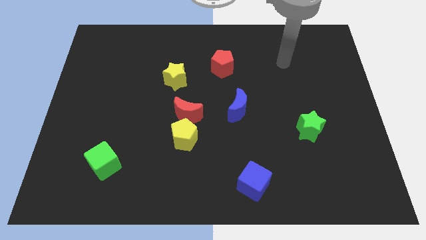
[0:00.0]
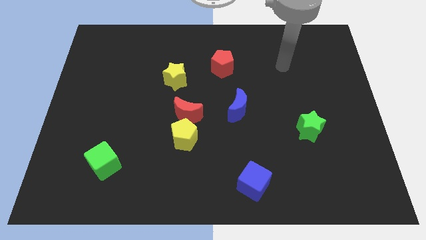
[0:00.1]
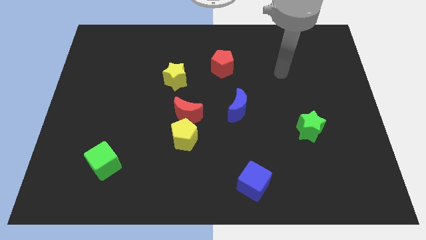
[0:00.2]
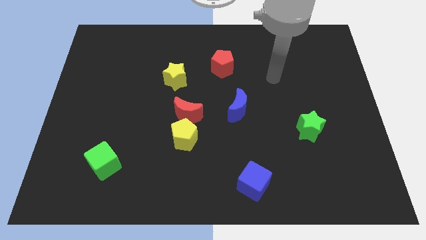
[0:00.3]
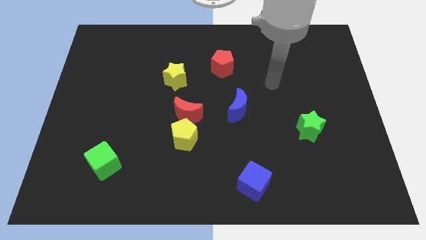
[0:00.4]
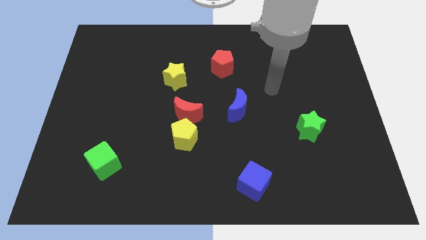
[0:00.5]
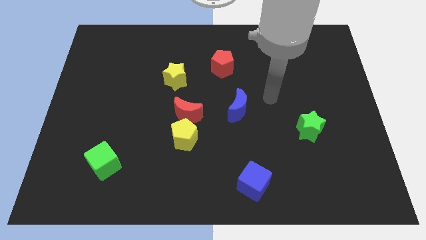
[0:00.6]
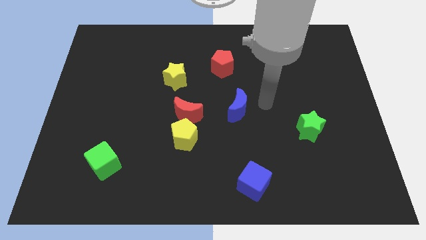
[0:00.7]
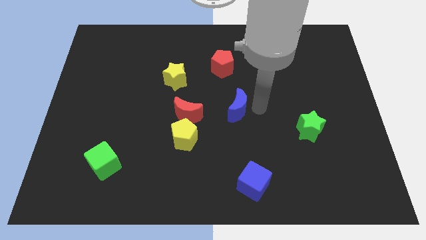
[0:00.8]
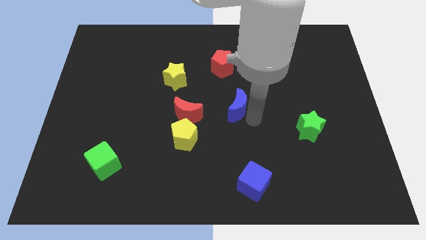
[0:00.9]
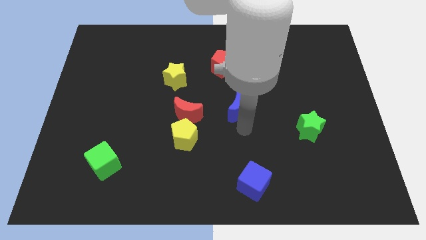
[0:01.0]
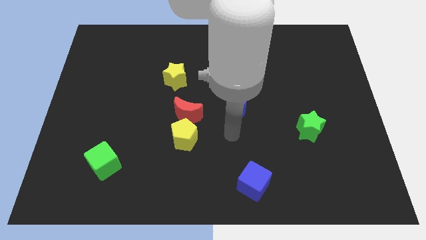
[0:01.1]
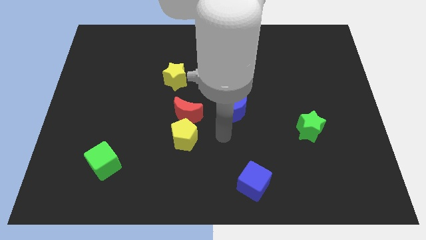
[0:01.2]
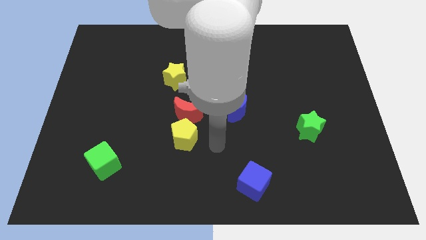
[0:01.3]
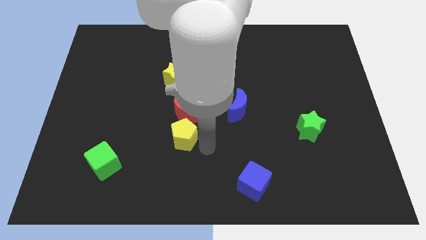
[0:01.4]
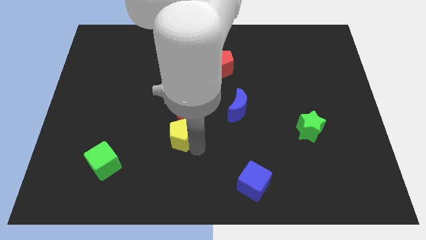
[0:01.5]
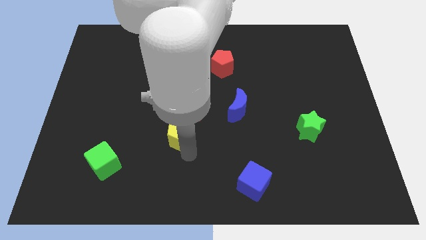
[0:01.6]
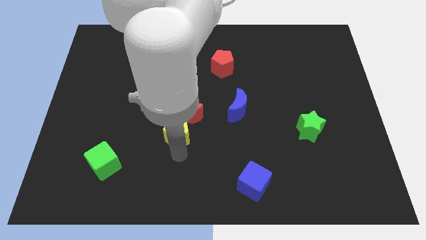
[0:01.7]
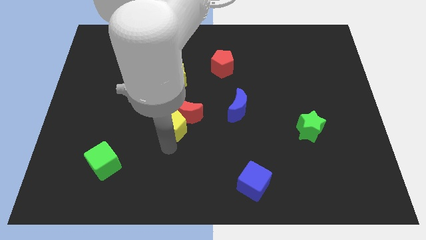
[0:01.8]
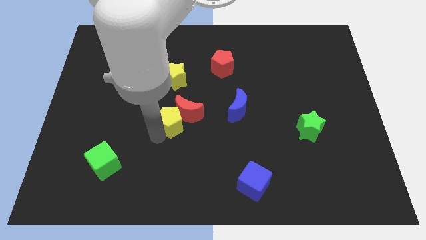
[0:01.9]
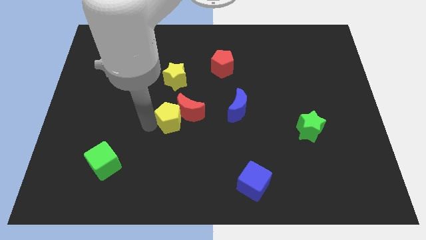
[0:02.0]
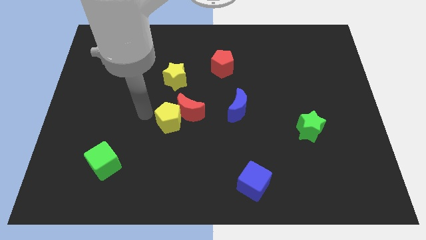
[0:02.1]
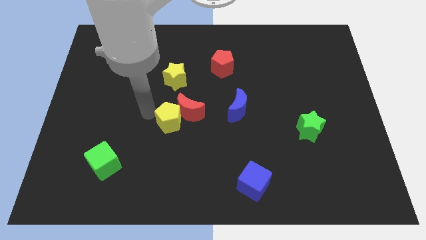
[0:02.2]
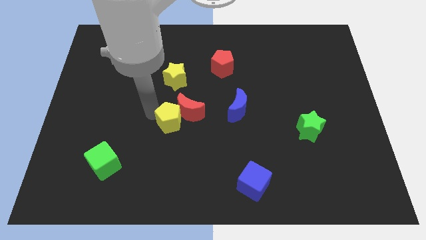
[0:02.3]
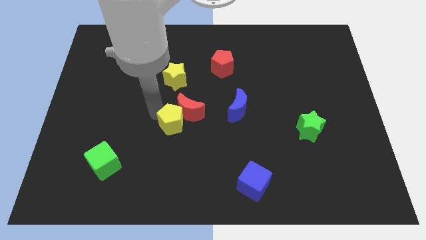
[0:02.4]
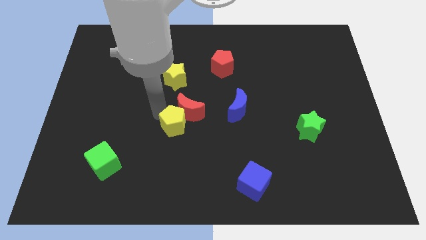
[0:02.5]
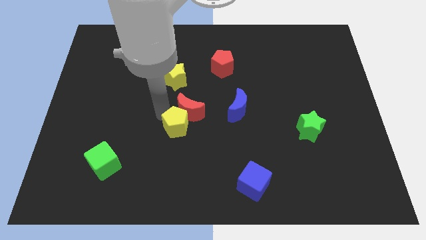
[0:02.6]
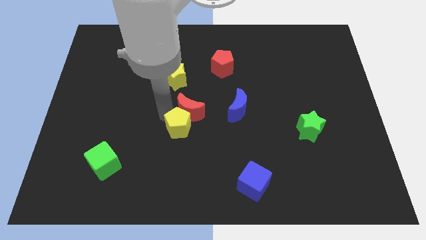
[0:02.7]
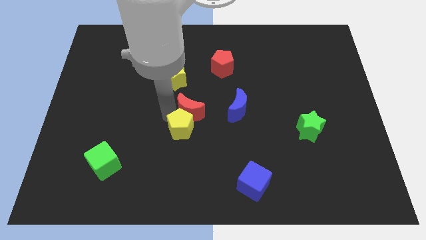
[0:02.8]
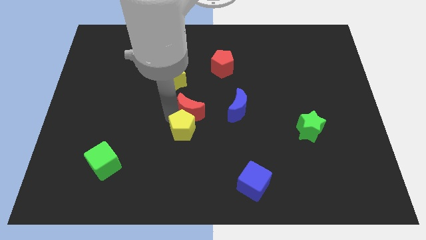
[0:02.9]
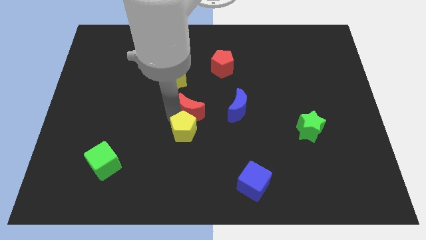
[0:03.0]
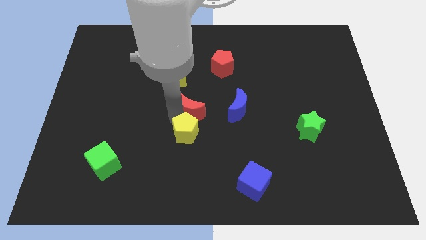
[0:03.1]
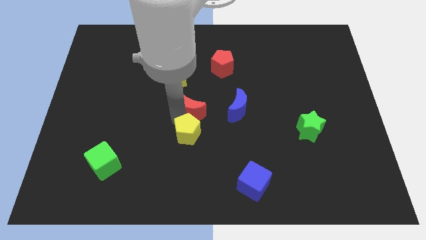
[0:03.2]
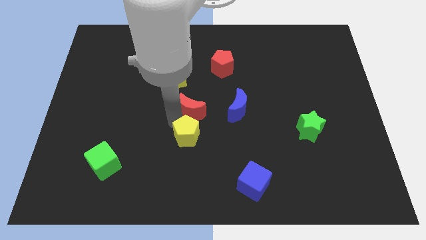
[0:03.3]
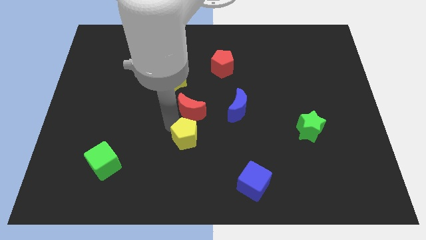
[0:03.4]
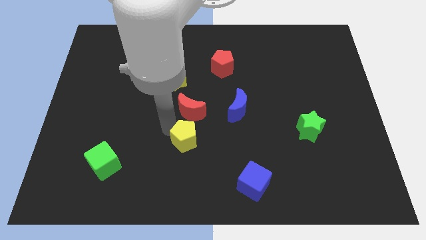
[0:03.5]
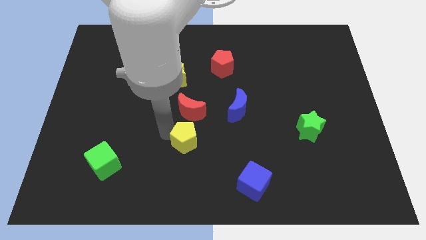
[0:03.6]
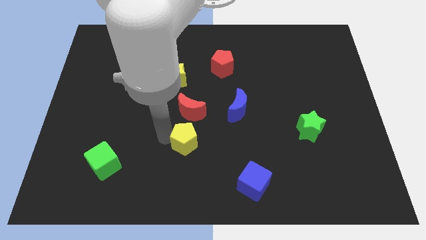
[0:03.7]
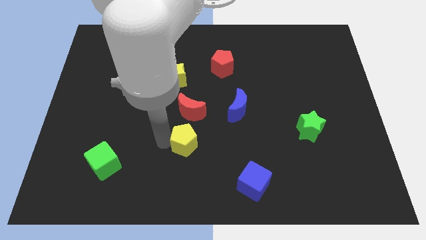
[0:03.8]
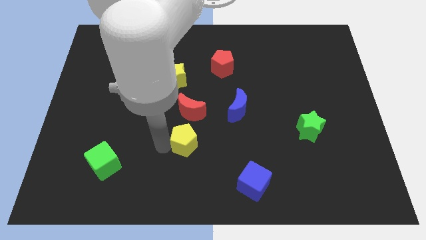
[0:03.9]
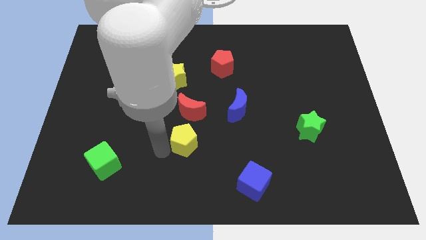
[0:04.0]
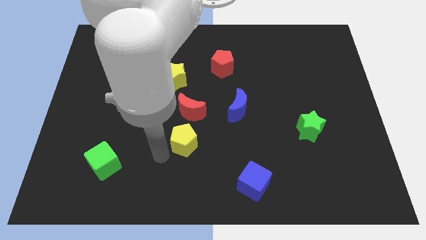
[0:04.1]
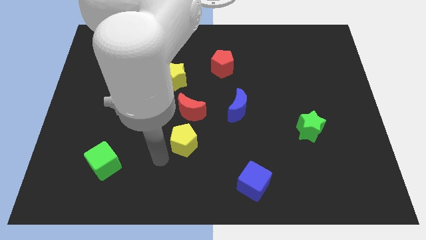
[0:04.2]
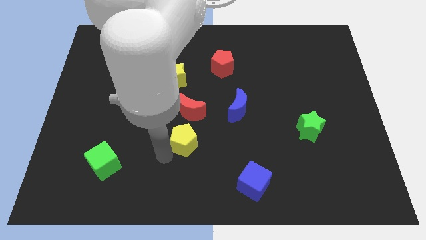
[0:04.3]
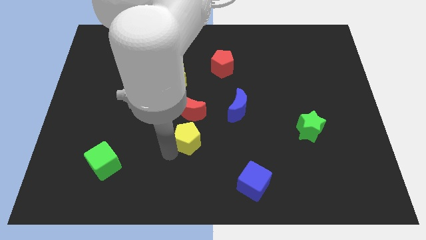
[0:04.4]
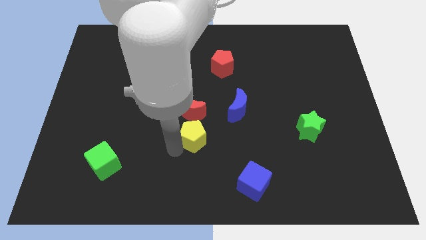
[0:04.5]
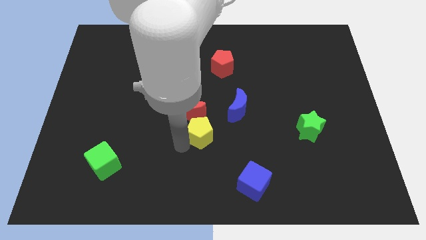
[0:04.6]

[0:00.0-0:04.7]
put the yellow pentagon to the bottom left of the blue moon

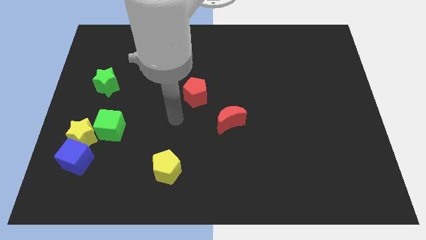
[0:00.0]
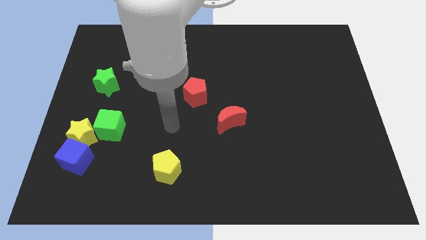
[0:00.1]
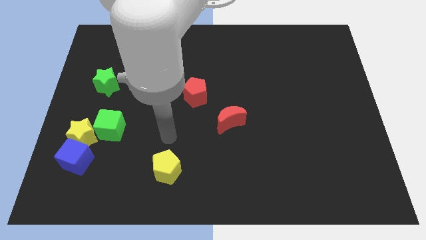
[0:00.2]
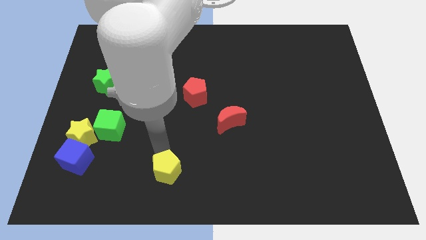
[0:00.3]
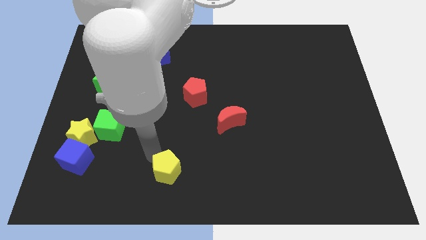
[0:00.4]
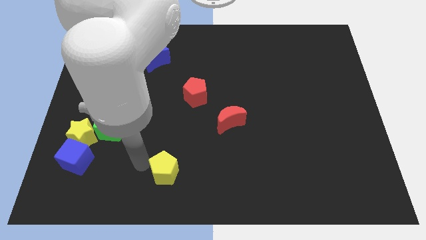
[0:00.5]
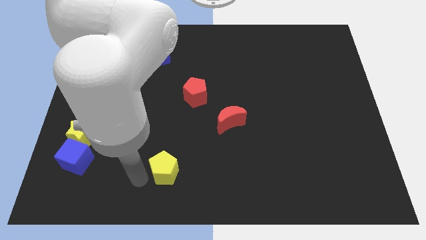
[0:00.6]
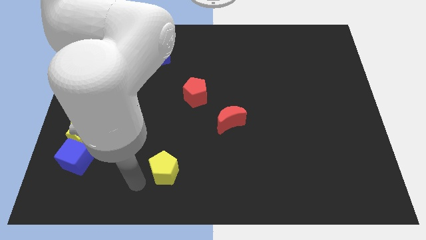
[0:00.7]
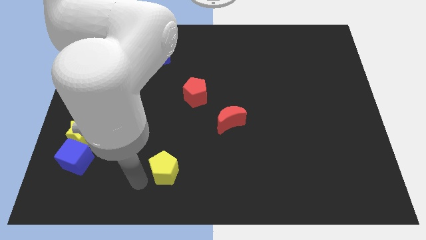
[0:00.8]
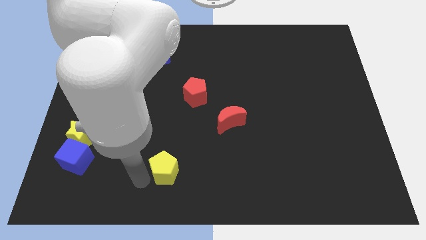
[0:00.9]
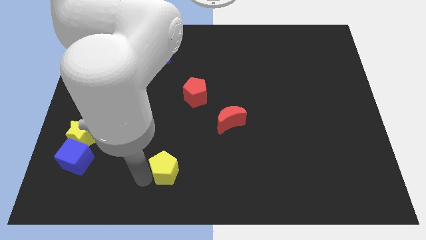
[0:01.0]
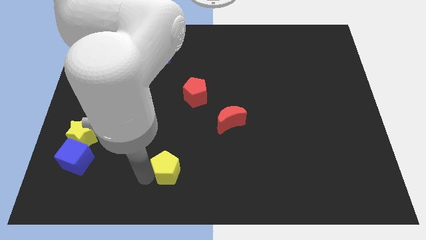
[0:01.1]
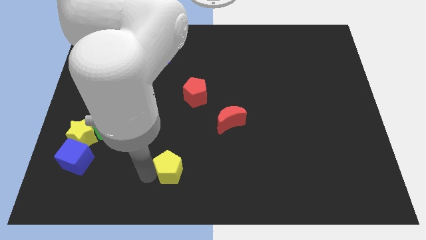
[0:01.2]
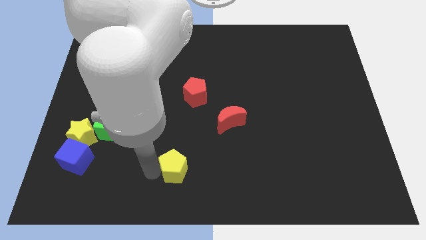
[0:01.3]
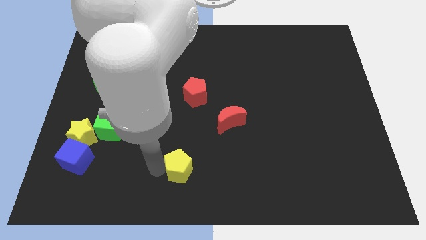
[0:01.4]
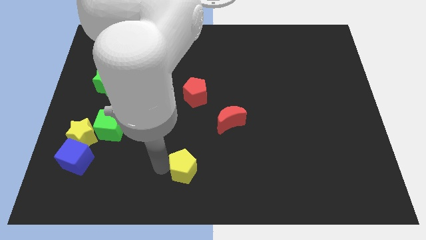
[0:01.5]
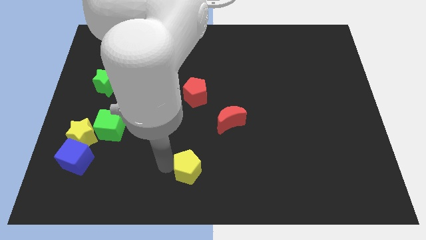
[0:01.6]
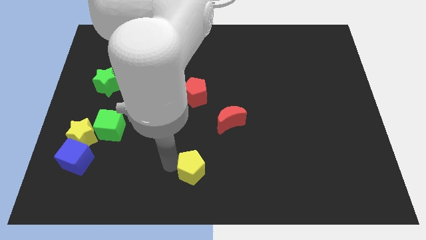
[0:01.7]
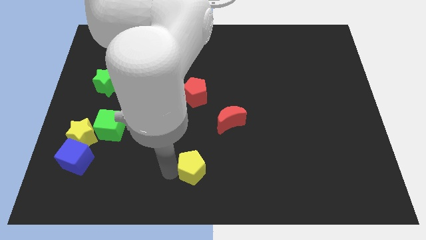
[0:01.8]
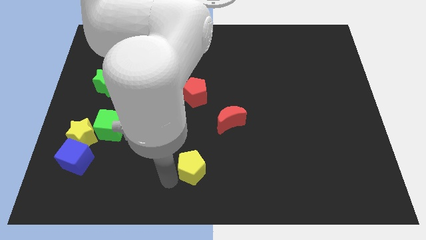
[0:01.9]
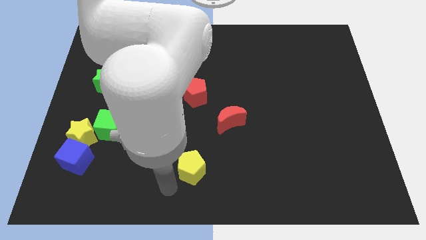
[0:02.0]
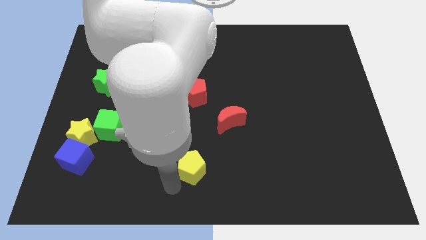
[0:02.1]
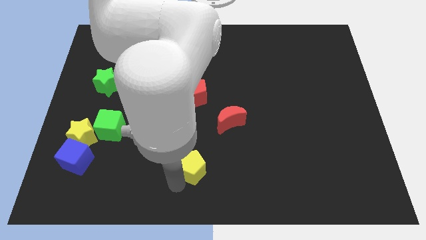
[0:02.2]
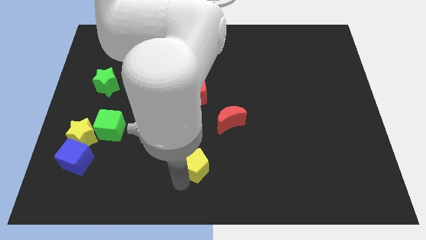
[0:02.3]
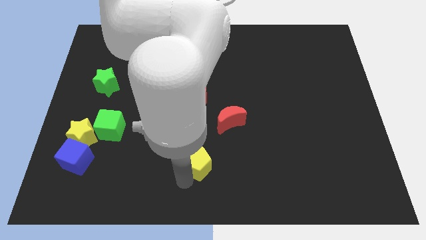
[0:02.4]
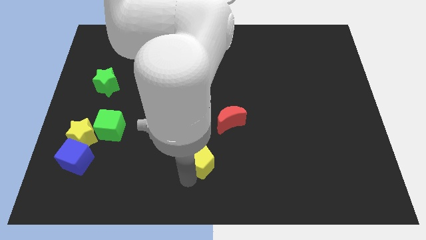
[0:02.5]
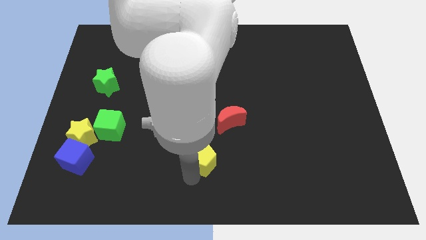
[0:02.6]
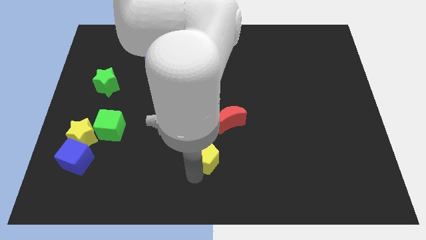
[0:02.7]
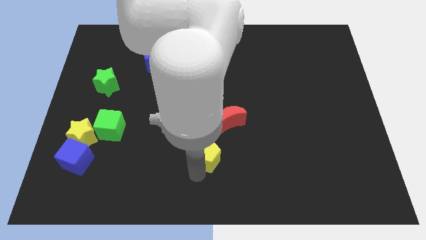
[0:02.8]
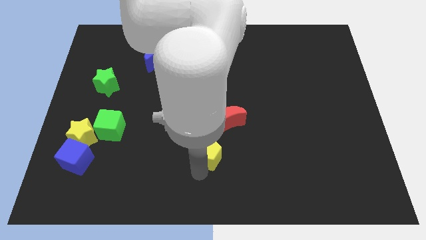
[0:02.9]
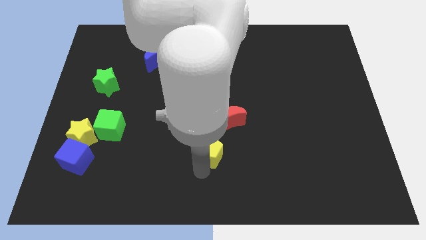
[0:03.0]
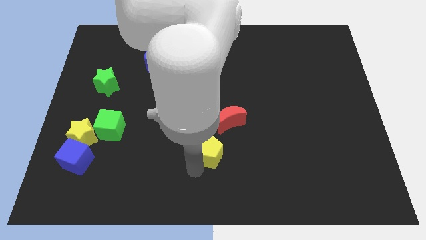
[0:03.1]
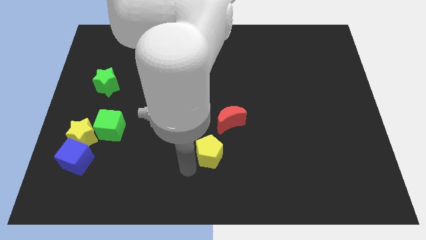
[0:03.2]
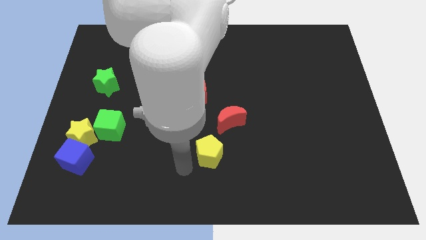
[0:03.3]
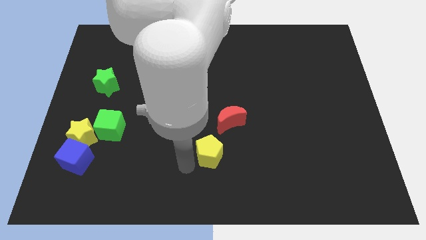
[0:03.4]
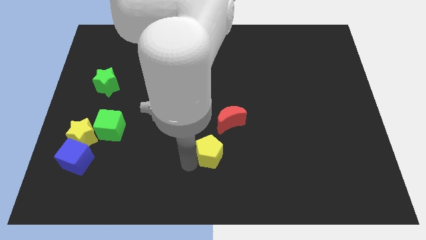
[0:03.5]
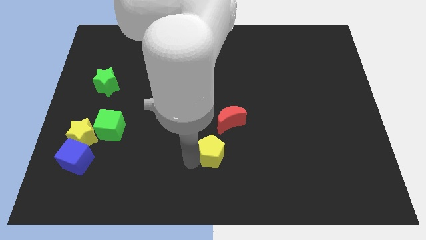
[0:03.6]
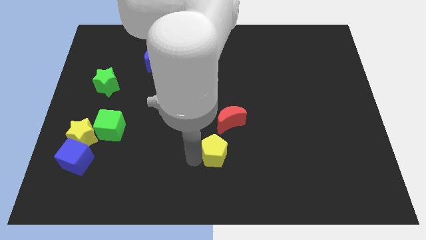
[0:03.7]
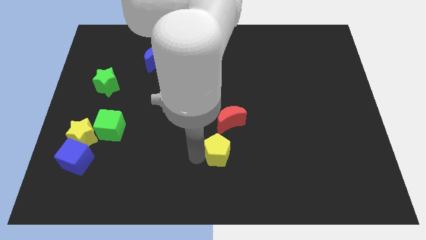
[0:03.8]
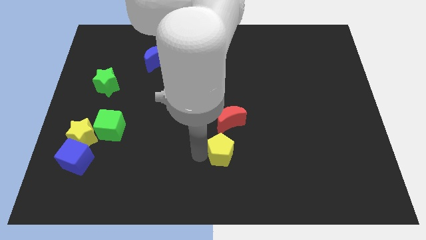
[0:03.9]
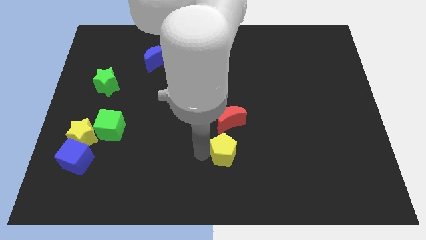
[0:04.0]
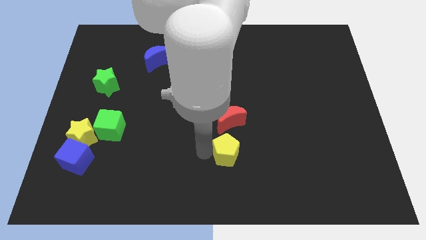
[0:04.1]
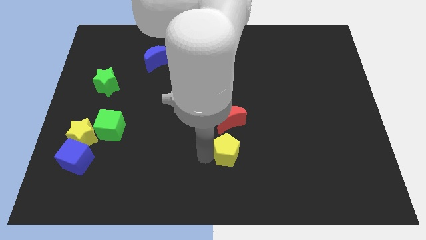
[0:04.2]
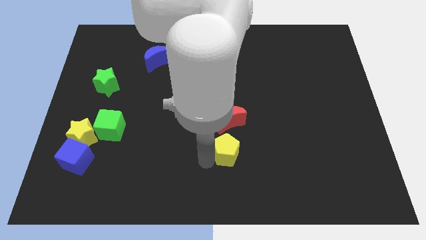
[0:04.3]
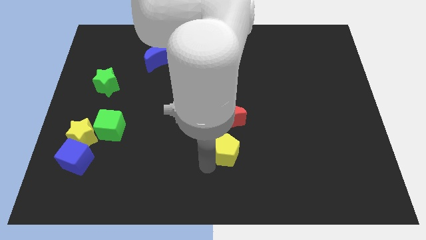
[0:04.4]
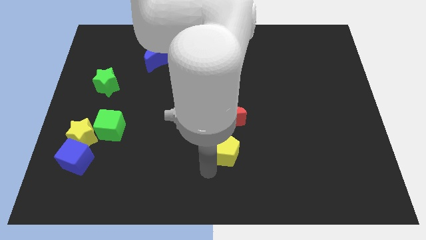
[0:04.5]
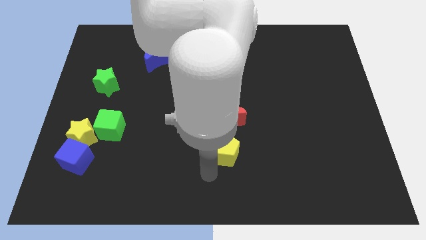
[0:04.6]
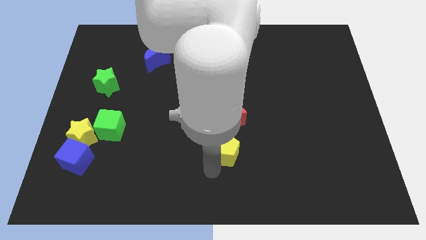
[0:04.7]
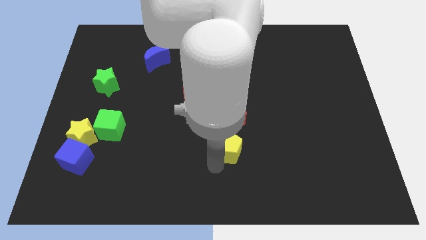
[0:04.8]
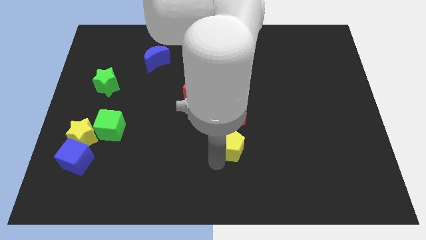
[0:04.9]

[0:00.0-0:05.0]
put the yellow pentagon to the bottom right of the red moon
